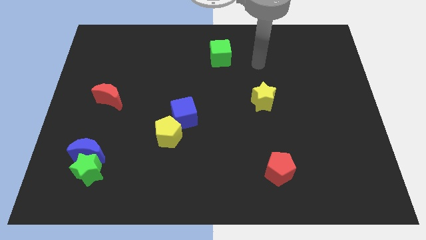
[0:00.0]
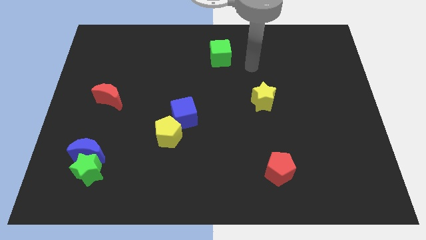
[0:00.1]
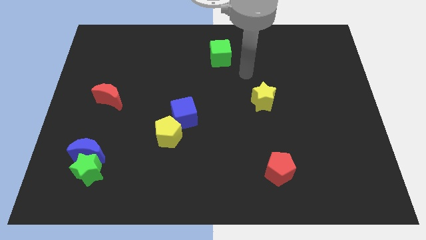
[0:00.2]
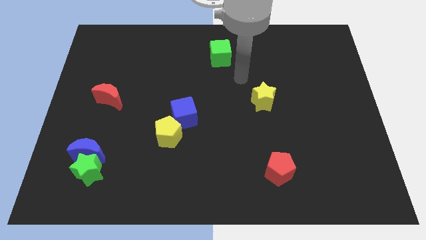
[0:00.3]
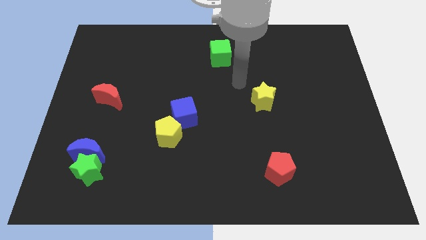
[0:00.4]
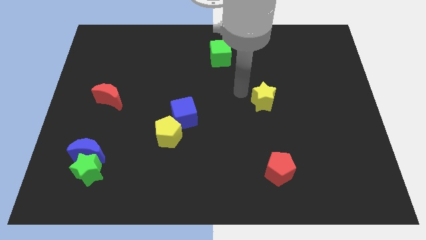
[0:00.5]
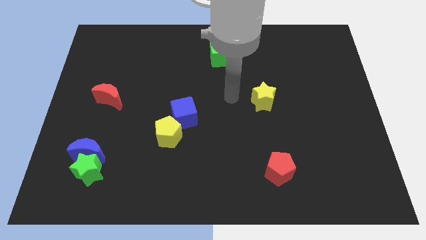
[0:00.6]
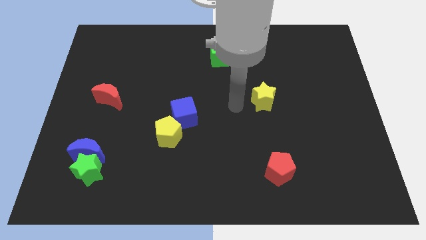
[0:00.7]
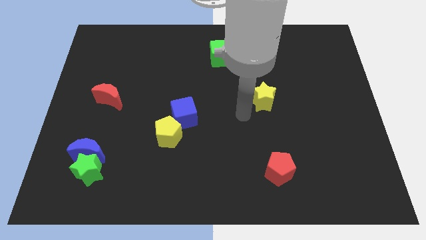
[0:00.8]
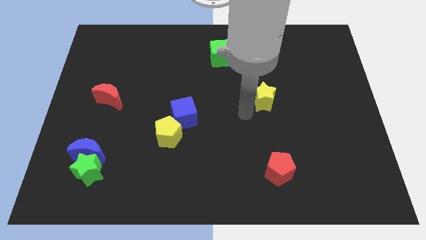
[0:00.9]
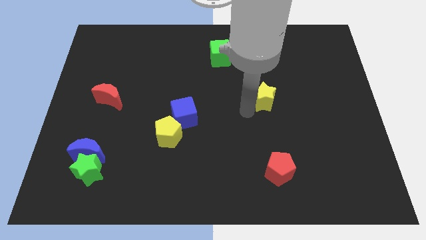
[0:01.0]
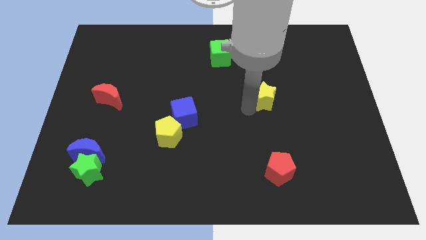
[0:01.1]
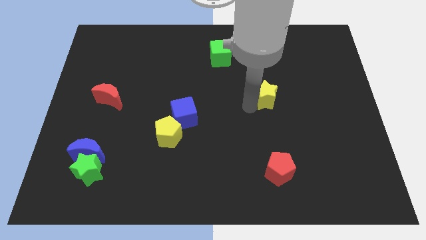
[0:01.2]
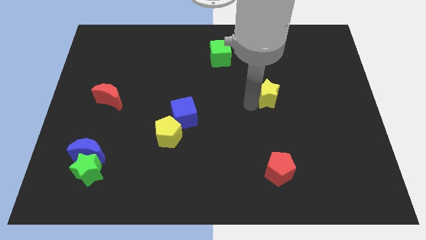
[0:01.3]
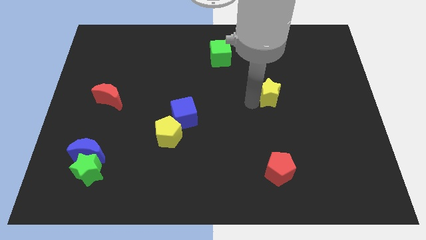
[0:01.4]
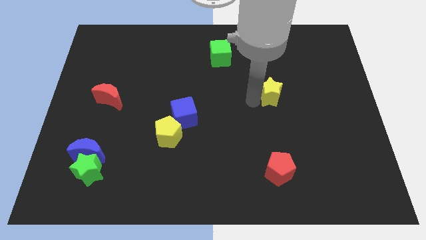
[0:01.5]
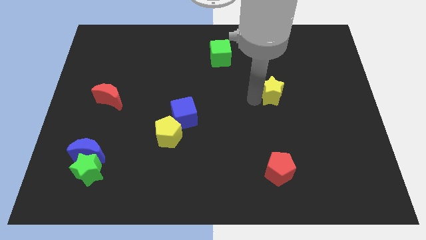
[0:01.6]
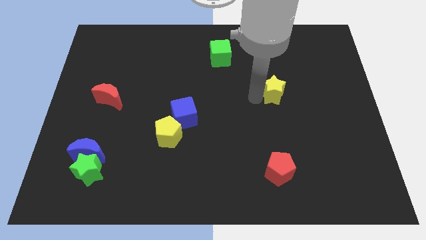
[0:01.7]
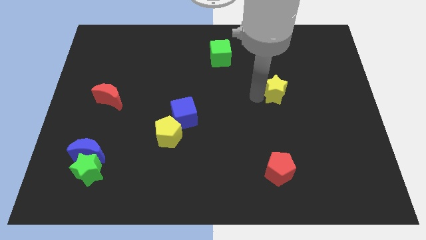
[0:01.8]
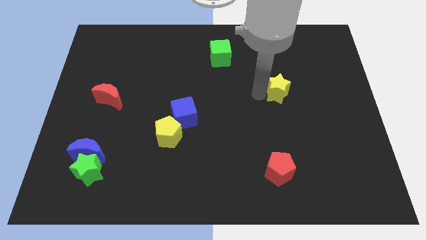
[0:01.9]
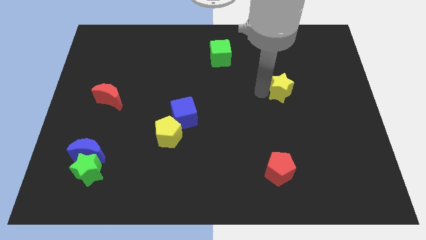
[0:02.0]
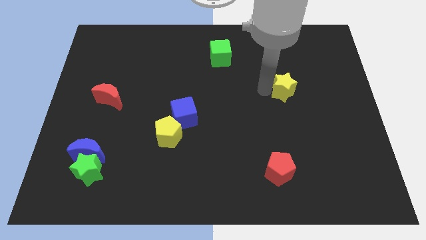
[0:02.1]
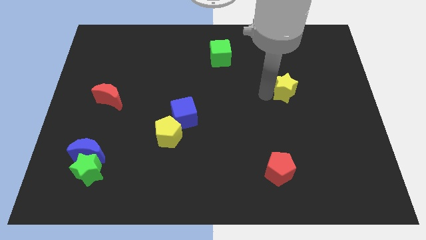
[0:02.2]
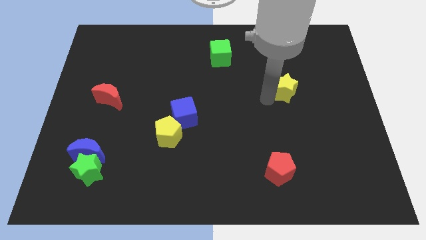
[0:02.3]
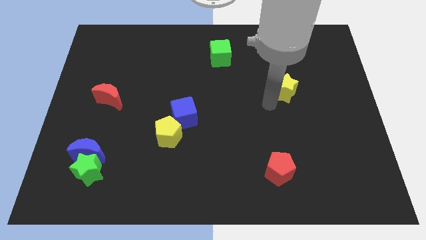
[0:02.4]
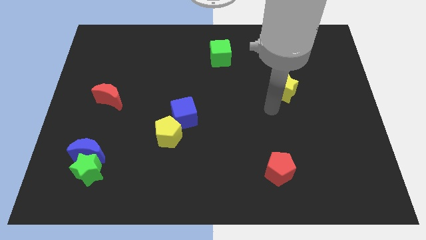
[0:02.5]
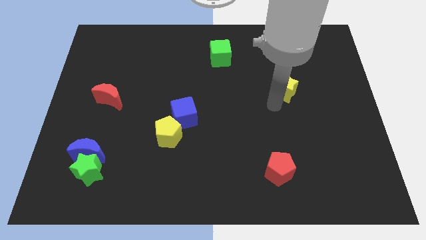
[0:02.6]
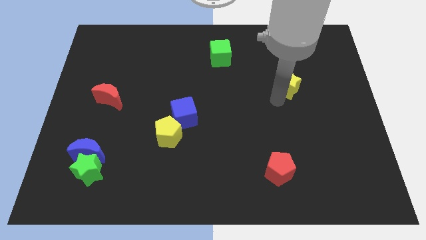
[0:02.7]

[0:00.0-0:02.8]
move the yellow star up and to the right a little

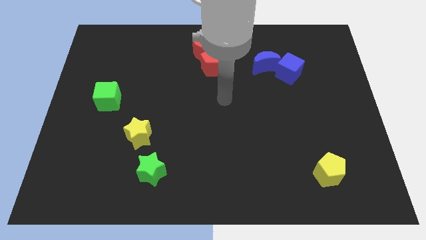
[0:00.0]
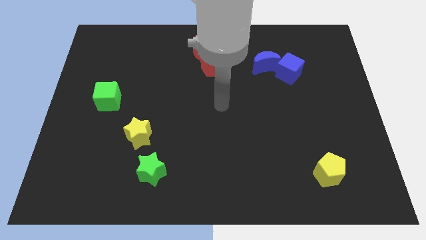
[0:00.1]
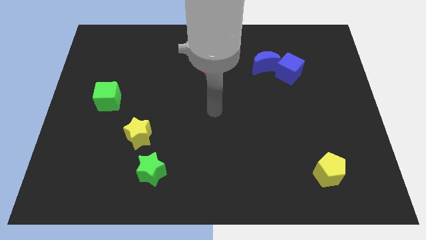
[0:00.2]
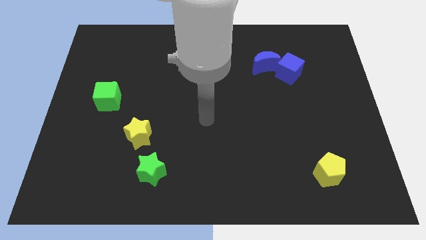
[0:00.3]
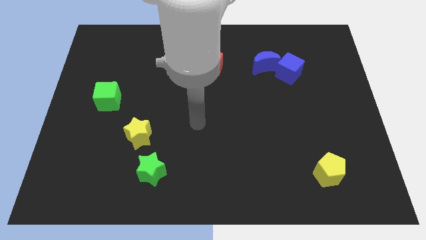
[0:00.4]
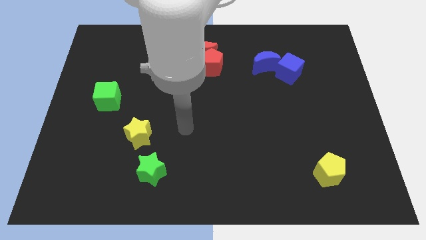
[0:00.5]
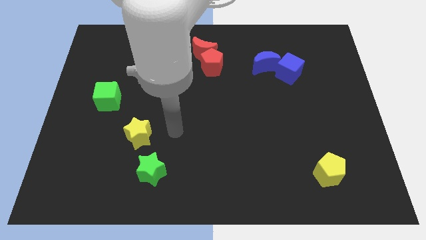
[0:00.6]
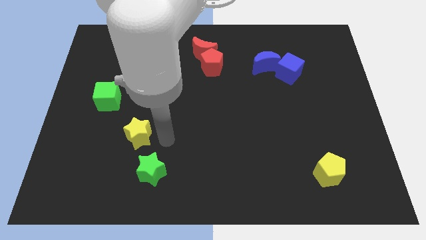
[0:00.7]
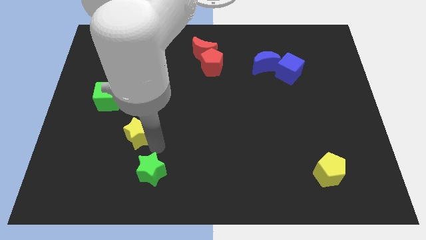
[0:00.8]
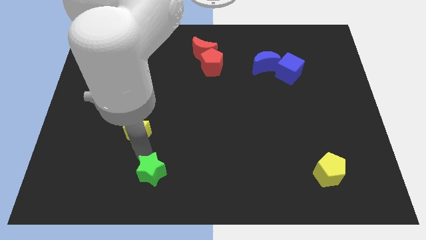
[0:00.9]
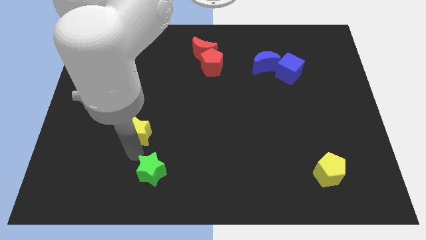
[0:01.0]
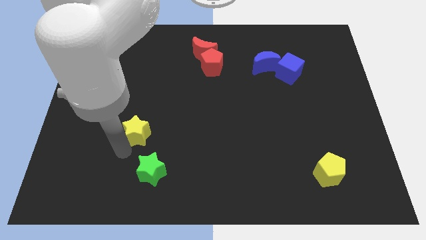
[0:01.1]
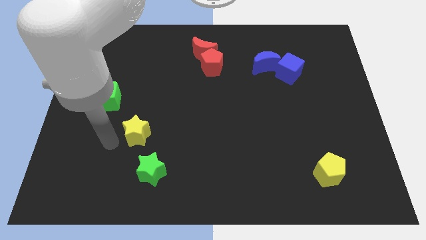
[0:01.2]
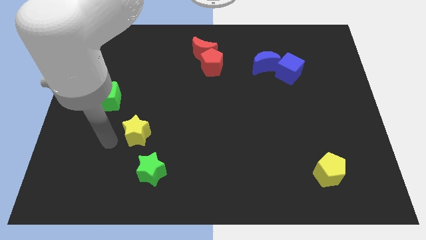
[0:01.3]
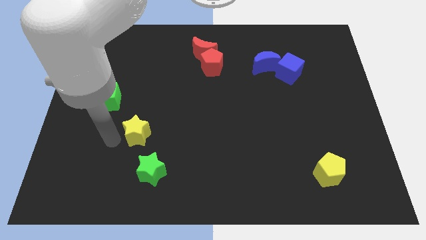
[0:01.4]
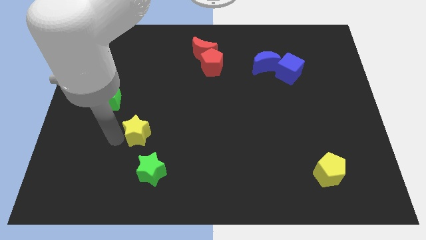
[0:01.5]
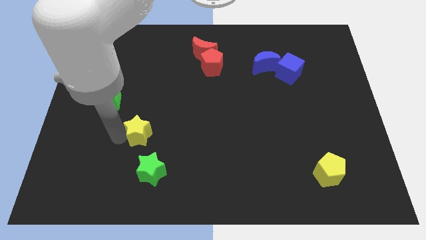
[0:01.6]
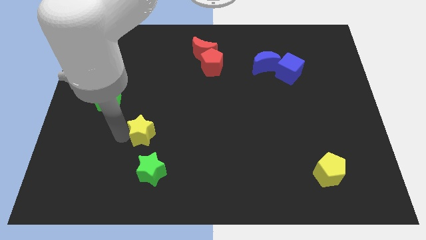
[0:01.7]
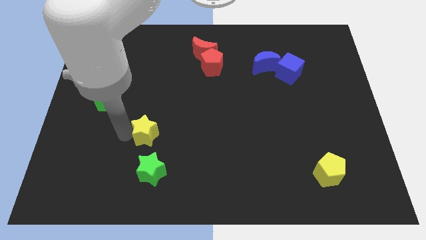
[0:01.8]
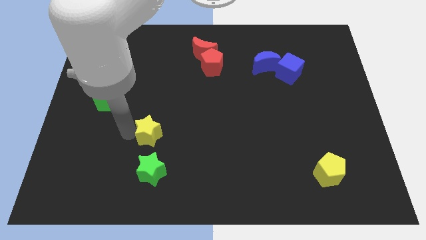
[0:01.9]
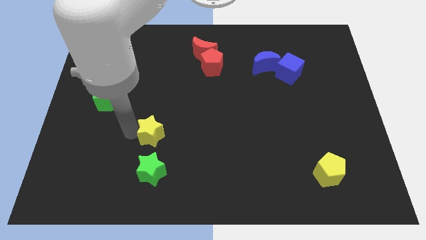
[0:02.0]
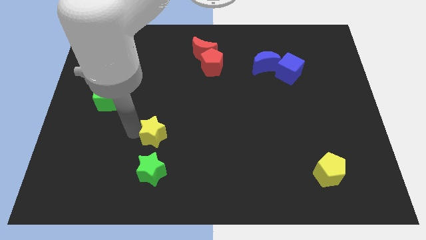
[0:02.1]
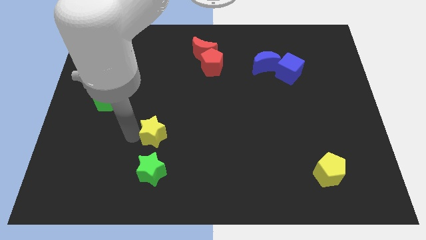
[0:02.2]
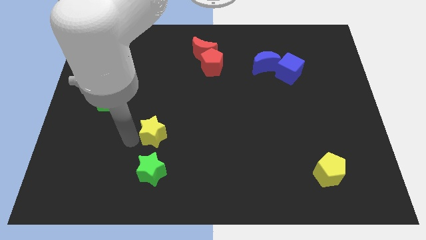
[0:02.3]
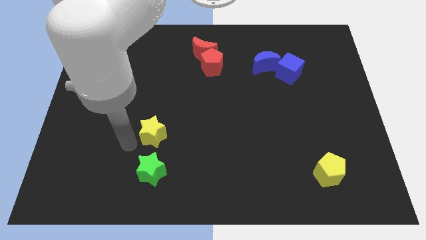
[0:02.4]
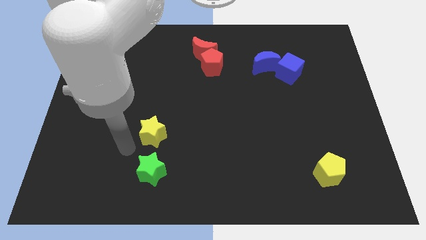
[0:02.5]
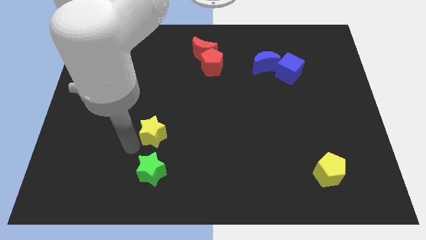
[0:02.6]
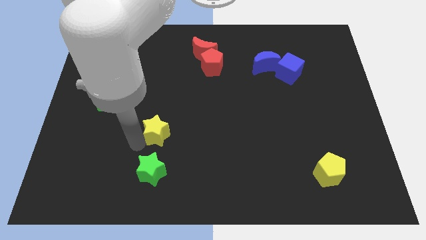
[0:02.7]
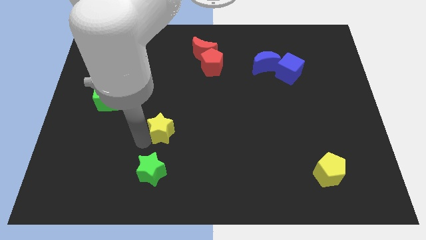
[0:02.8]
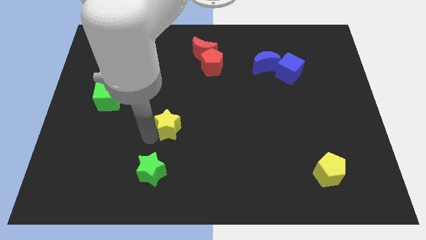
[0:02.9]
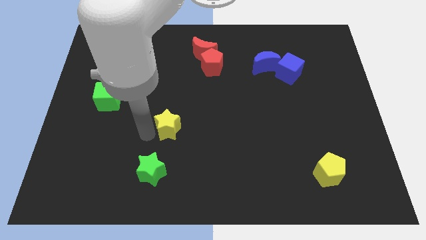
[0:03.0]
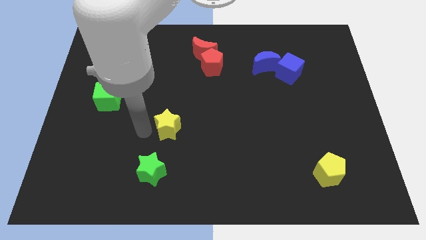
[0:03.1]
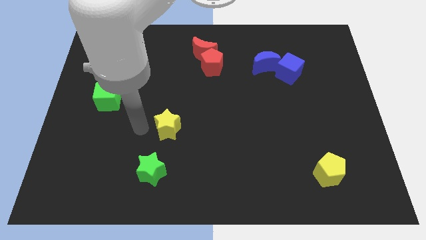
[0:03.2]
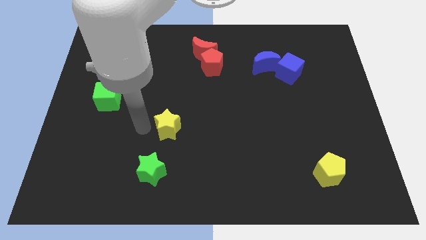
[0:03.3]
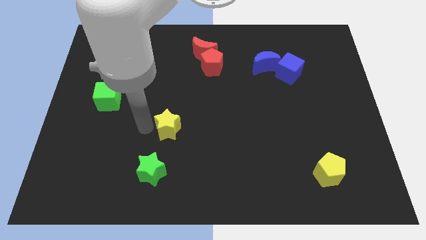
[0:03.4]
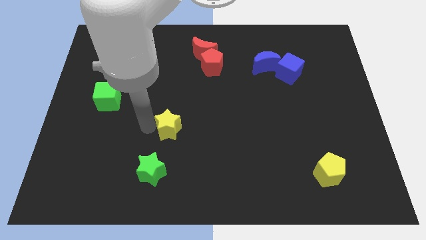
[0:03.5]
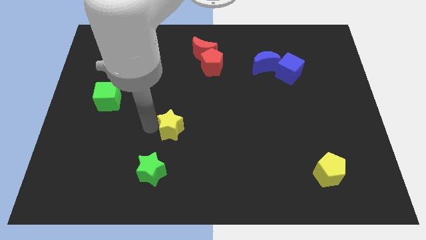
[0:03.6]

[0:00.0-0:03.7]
move the yellow star to the right a little

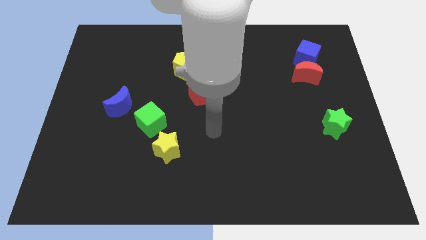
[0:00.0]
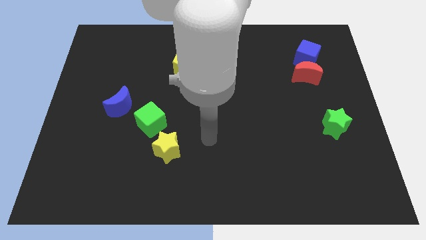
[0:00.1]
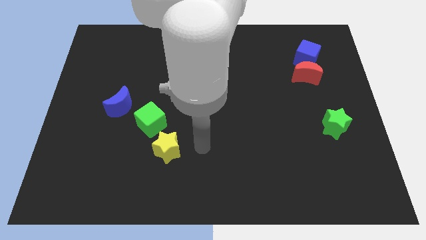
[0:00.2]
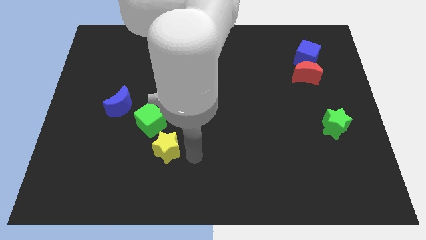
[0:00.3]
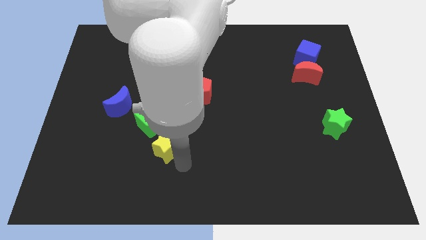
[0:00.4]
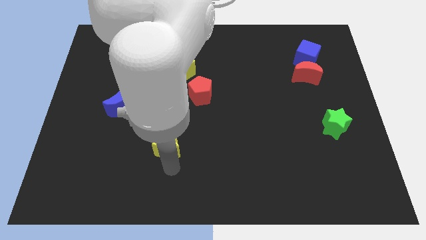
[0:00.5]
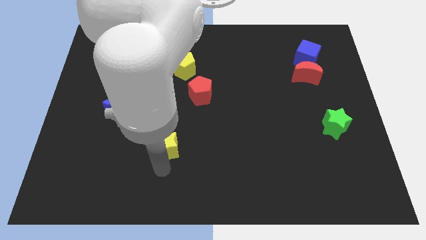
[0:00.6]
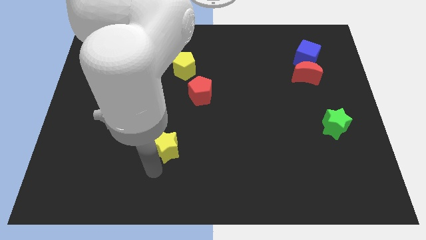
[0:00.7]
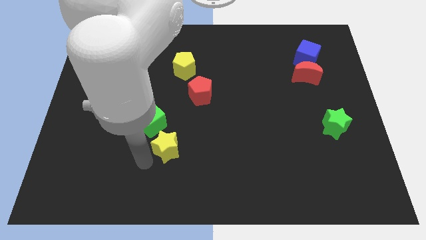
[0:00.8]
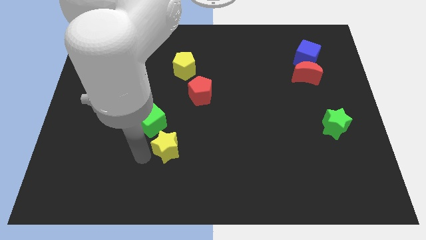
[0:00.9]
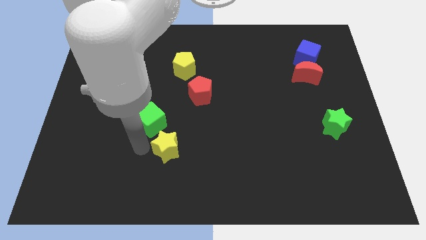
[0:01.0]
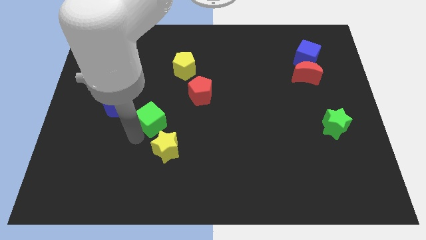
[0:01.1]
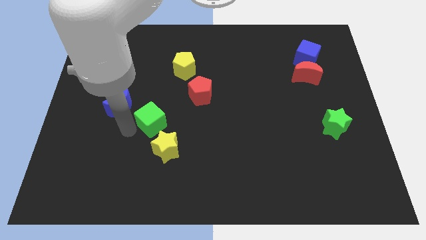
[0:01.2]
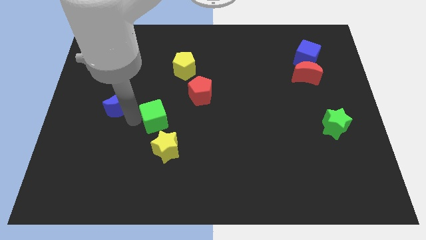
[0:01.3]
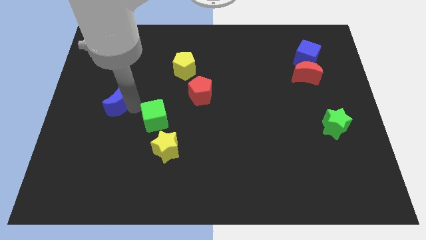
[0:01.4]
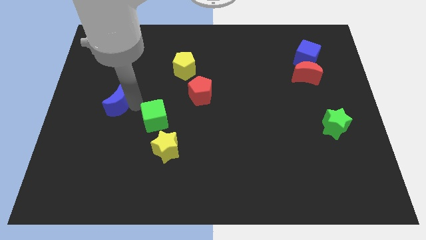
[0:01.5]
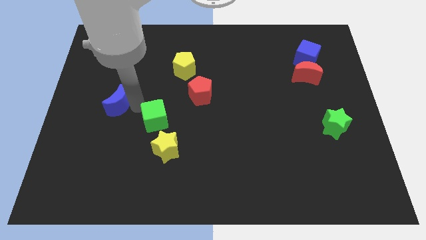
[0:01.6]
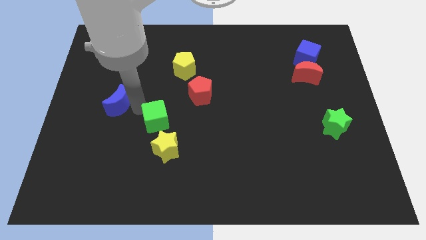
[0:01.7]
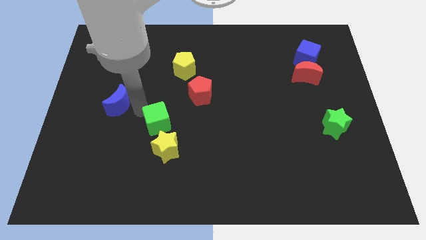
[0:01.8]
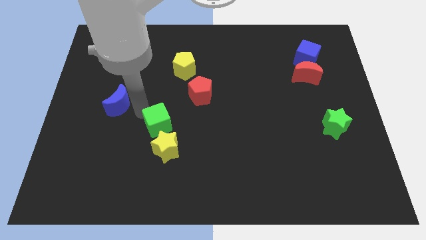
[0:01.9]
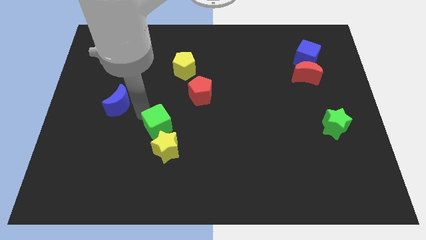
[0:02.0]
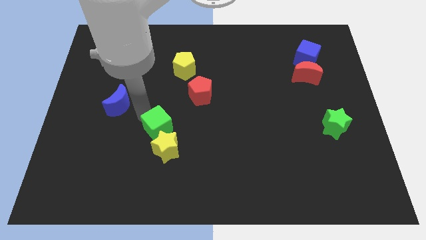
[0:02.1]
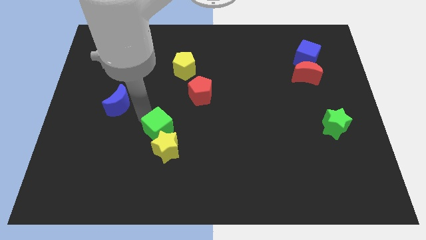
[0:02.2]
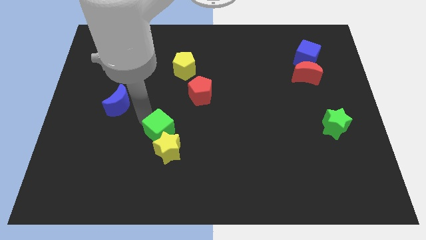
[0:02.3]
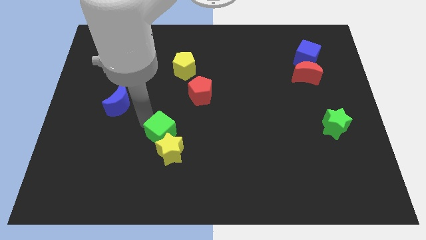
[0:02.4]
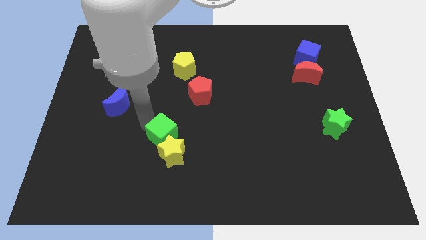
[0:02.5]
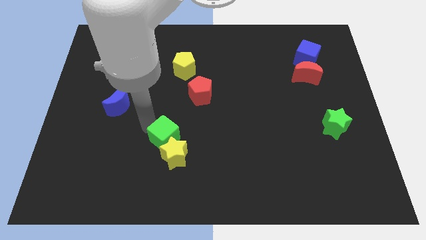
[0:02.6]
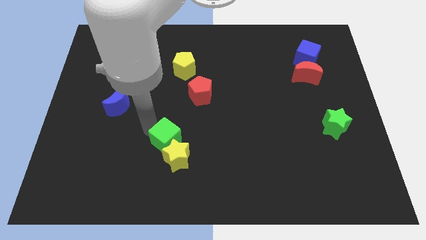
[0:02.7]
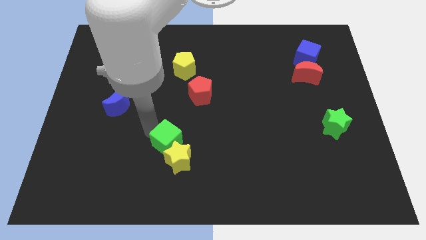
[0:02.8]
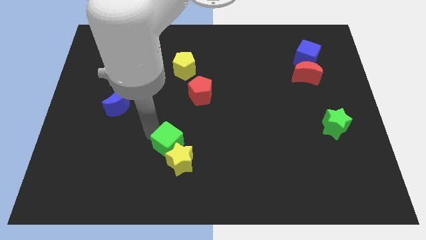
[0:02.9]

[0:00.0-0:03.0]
slightly push the green cube diagonally downwards and to the right
